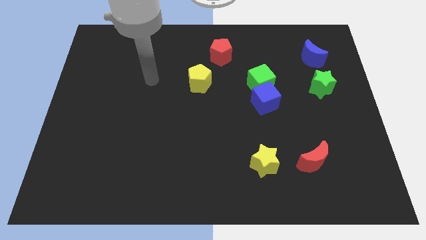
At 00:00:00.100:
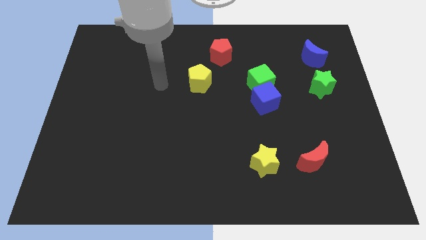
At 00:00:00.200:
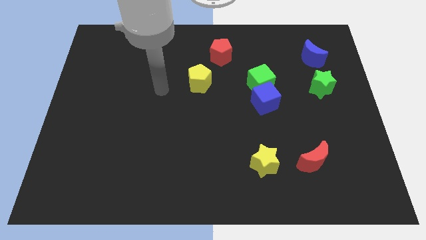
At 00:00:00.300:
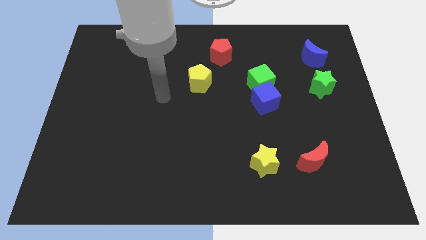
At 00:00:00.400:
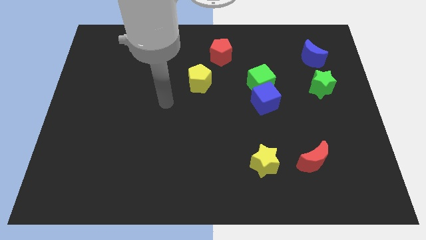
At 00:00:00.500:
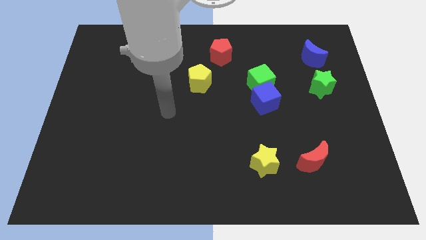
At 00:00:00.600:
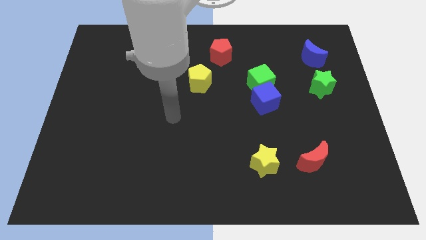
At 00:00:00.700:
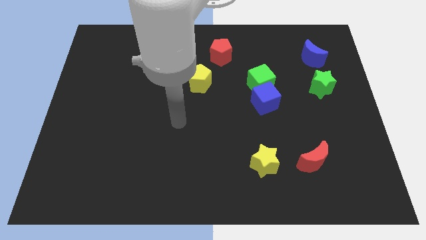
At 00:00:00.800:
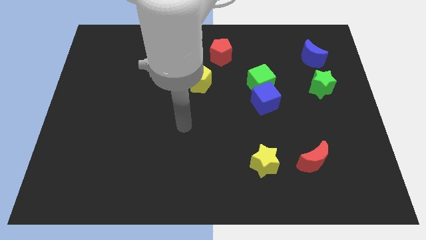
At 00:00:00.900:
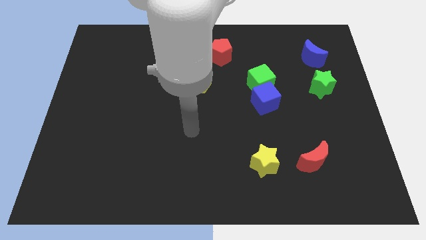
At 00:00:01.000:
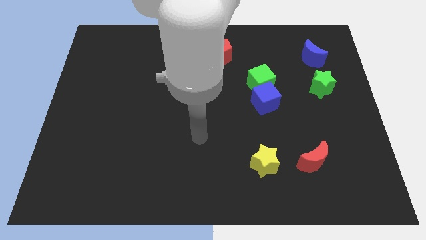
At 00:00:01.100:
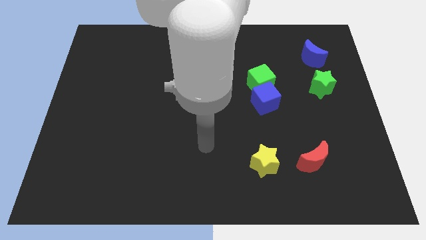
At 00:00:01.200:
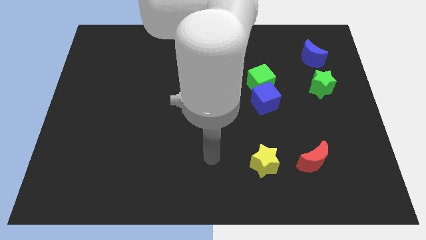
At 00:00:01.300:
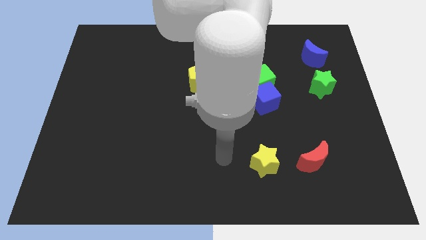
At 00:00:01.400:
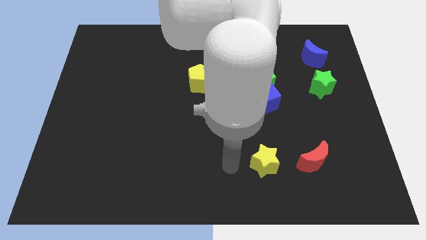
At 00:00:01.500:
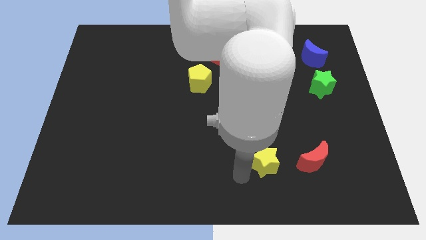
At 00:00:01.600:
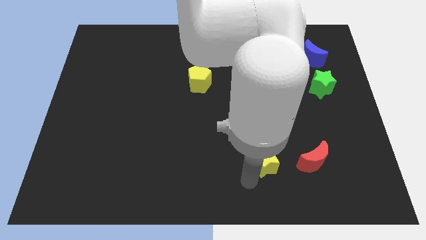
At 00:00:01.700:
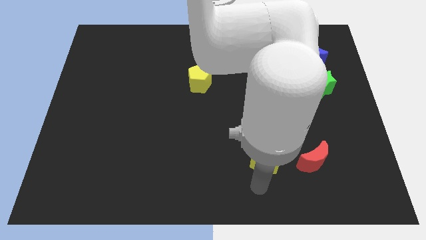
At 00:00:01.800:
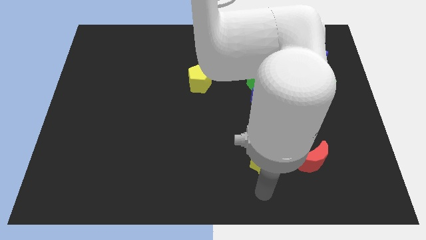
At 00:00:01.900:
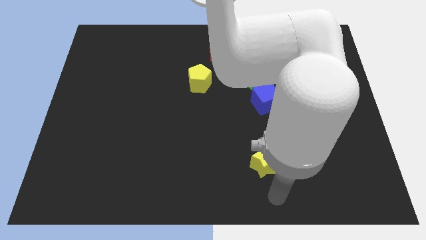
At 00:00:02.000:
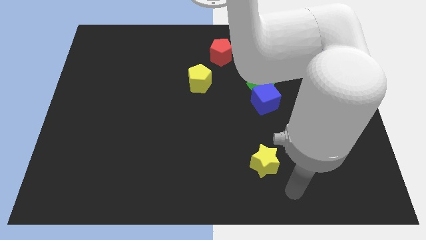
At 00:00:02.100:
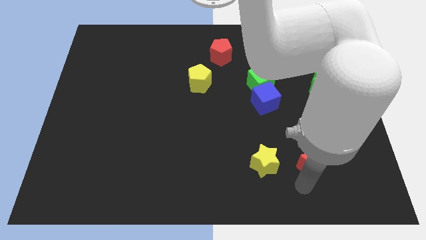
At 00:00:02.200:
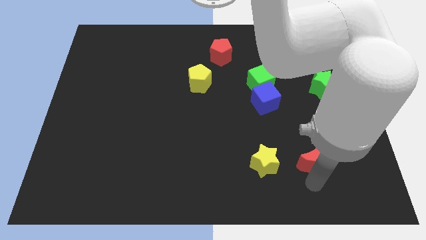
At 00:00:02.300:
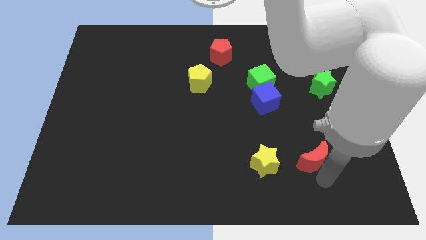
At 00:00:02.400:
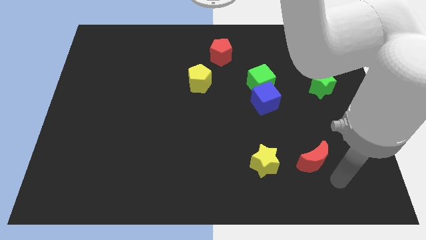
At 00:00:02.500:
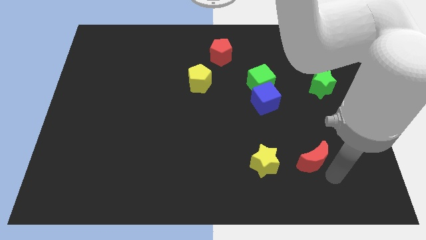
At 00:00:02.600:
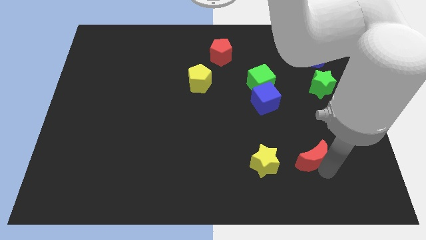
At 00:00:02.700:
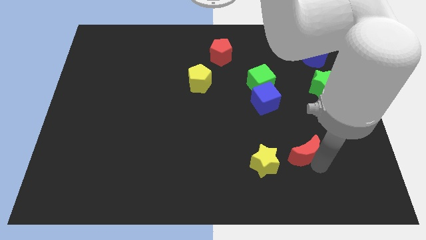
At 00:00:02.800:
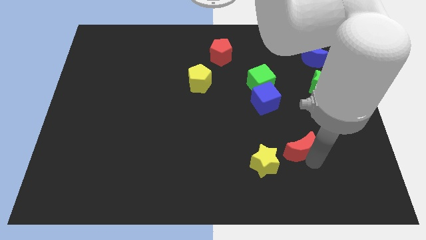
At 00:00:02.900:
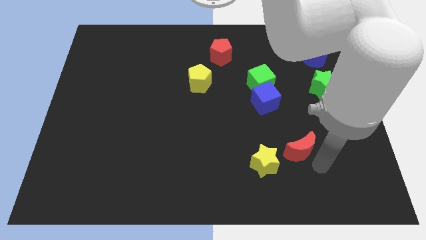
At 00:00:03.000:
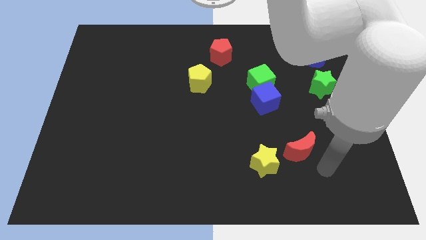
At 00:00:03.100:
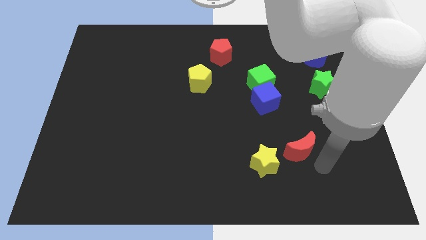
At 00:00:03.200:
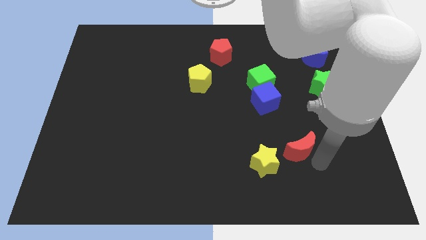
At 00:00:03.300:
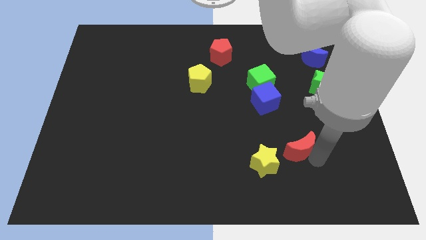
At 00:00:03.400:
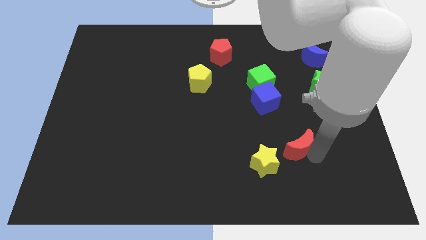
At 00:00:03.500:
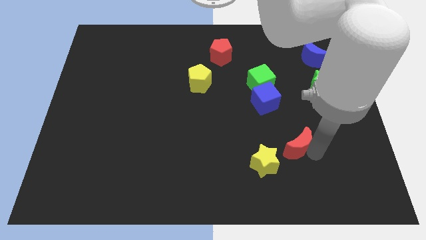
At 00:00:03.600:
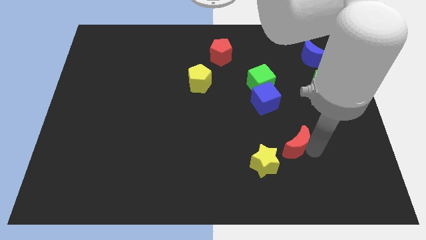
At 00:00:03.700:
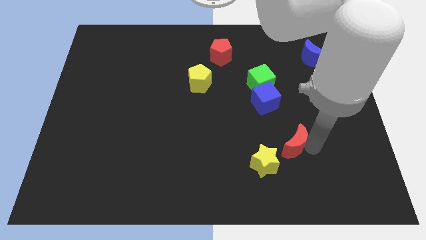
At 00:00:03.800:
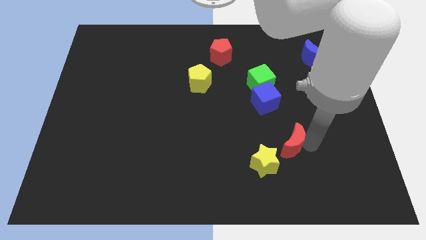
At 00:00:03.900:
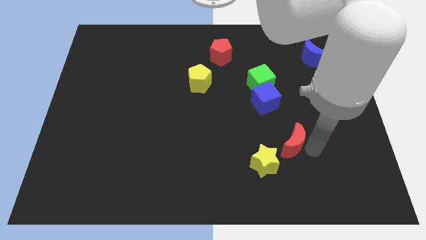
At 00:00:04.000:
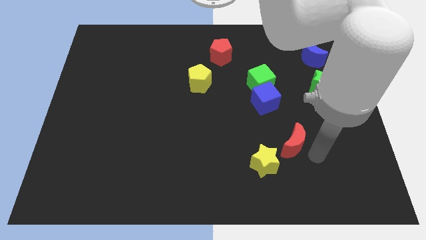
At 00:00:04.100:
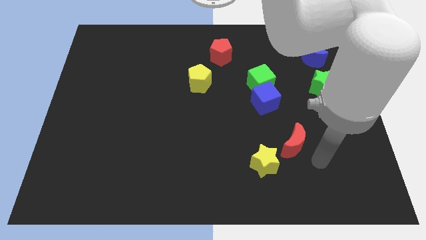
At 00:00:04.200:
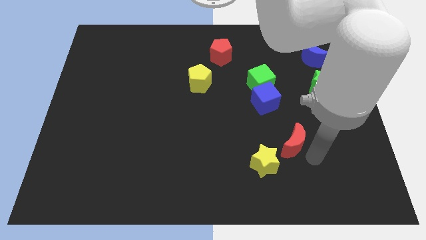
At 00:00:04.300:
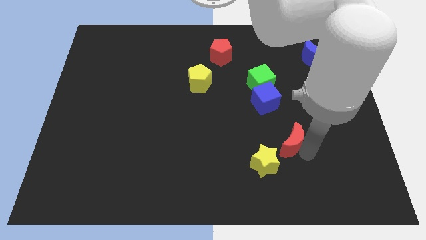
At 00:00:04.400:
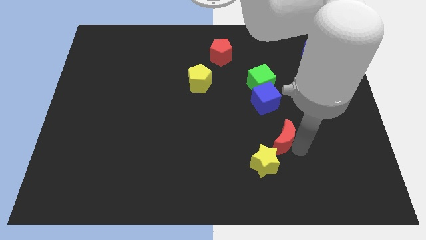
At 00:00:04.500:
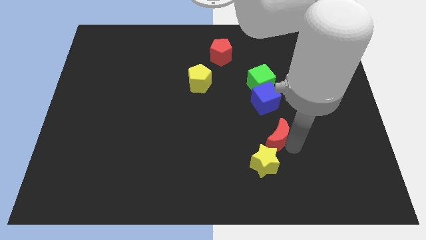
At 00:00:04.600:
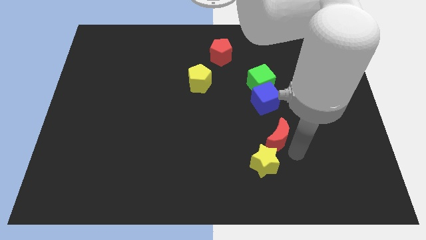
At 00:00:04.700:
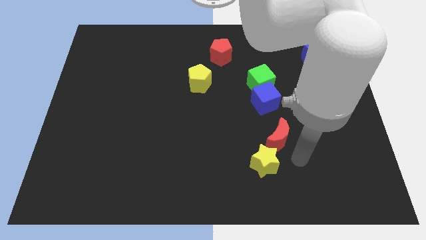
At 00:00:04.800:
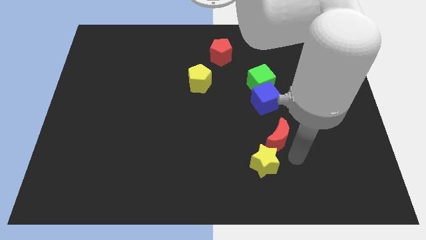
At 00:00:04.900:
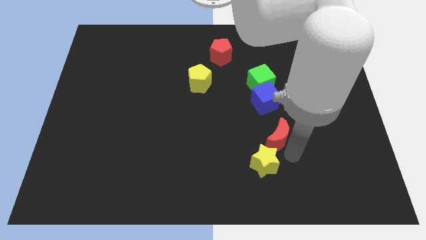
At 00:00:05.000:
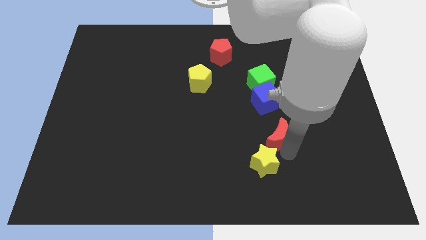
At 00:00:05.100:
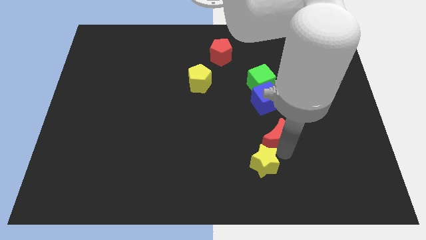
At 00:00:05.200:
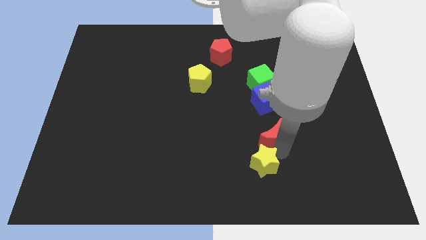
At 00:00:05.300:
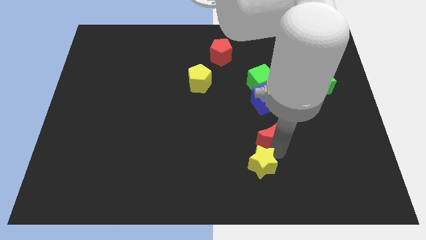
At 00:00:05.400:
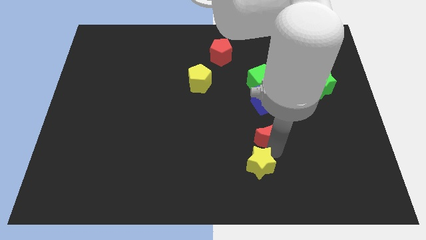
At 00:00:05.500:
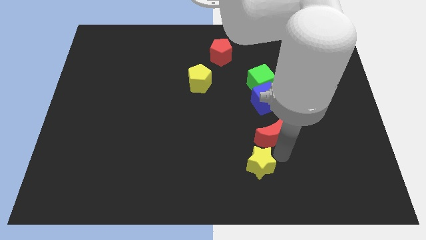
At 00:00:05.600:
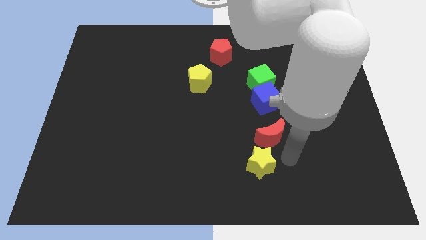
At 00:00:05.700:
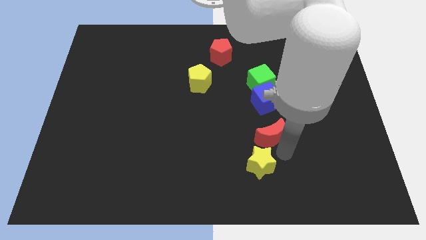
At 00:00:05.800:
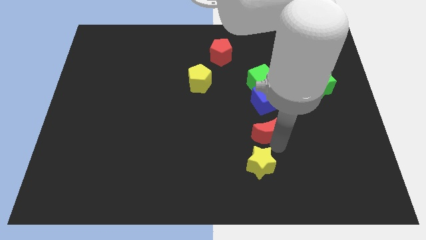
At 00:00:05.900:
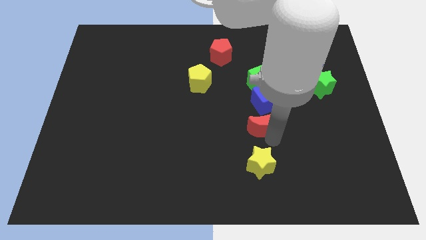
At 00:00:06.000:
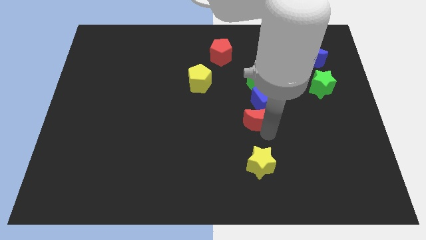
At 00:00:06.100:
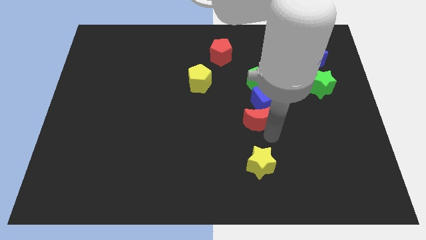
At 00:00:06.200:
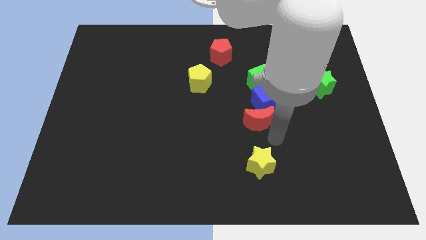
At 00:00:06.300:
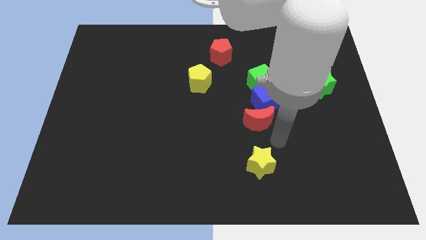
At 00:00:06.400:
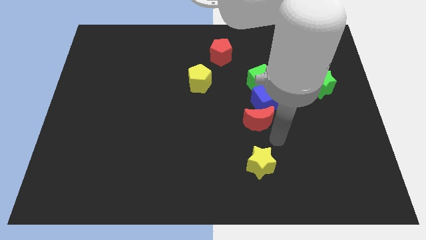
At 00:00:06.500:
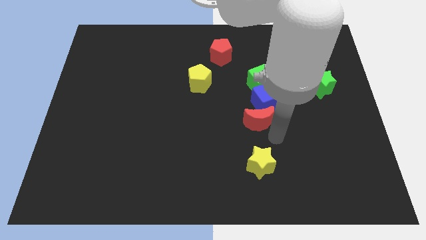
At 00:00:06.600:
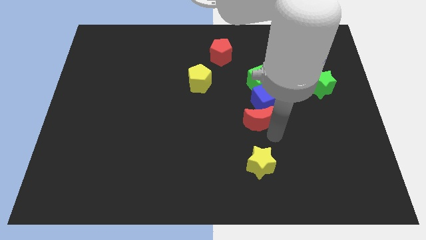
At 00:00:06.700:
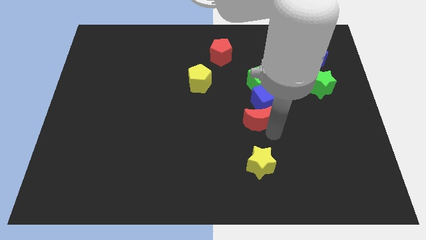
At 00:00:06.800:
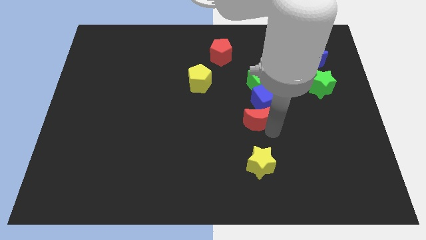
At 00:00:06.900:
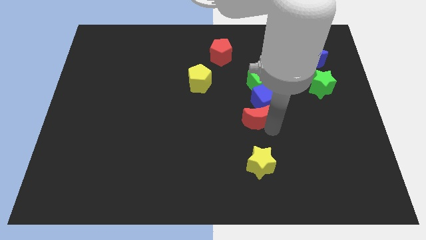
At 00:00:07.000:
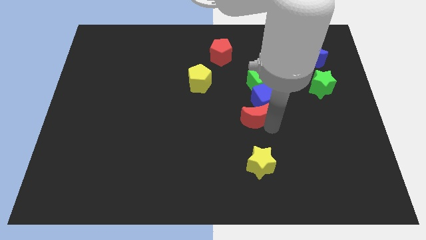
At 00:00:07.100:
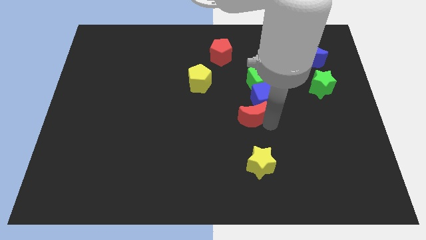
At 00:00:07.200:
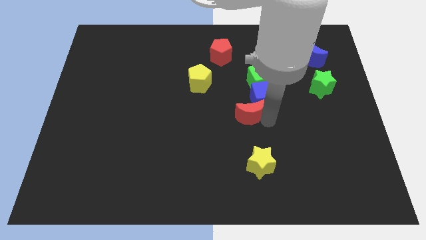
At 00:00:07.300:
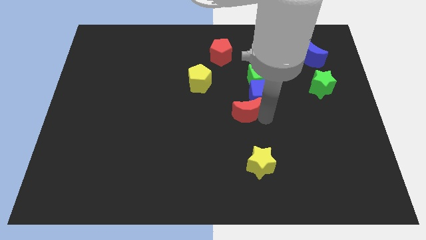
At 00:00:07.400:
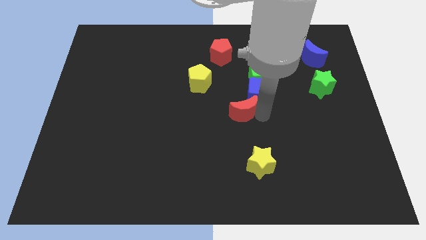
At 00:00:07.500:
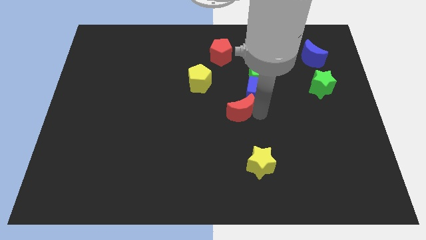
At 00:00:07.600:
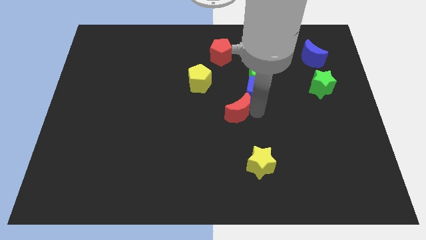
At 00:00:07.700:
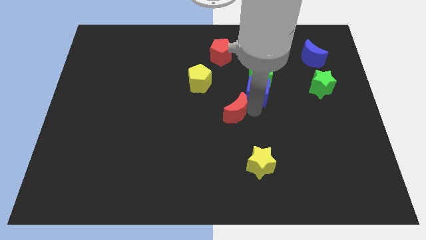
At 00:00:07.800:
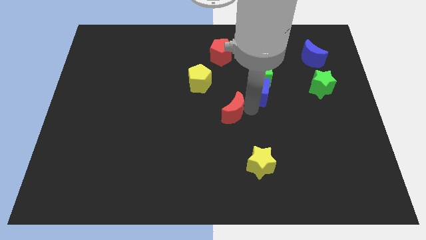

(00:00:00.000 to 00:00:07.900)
put the red moon to the bottom right side of the yellow pentagon

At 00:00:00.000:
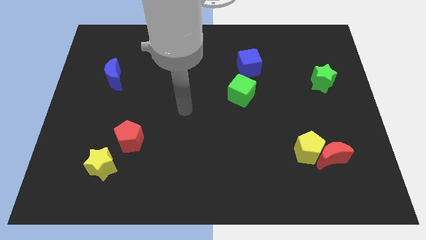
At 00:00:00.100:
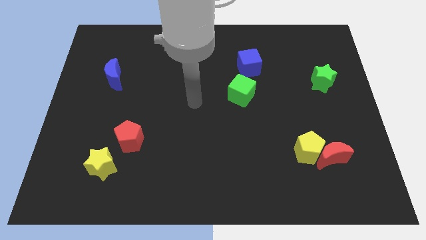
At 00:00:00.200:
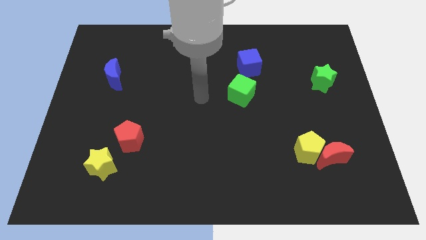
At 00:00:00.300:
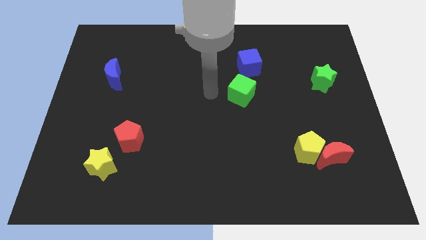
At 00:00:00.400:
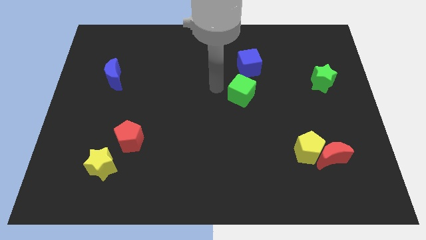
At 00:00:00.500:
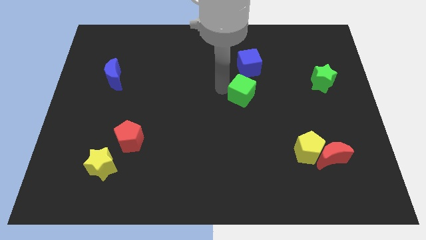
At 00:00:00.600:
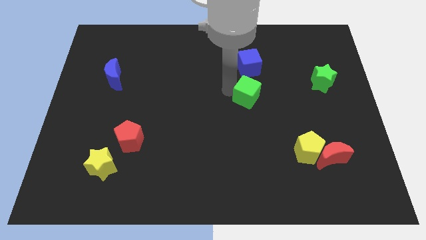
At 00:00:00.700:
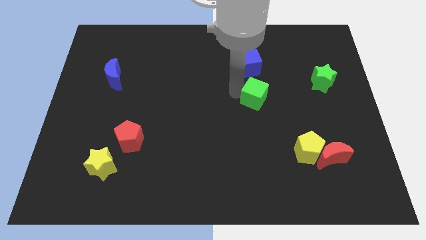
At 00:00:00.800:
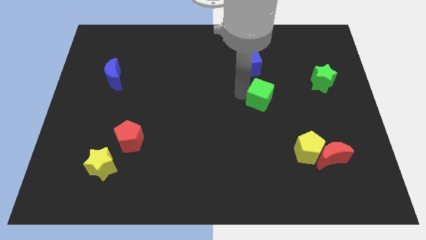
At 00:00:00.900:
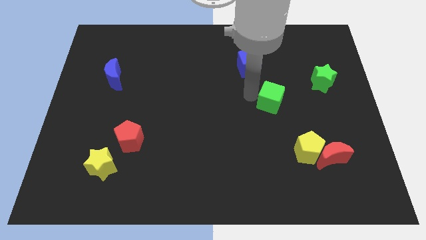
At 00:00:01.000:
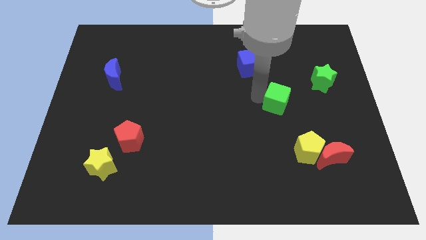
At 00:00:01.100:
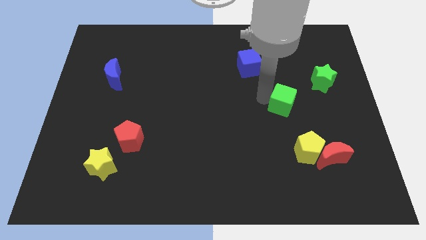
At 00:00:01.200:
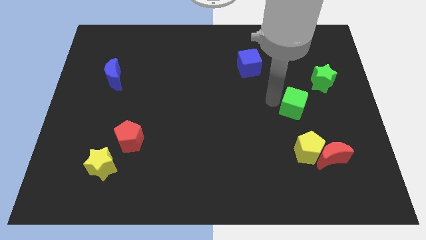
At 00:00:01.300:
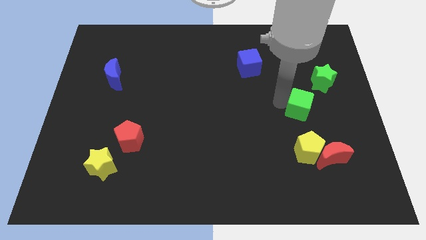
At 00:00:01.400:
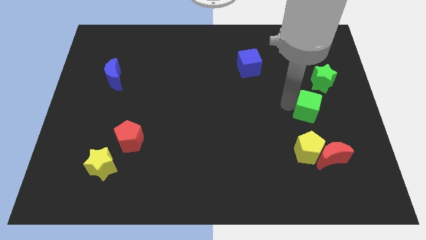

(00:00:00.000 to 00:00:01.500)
slide the green cube to the top of the red moon
